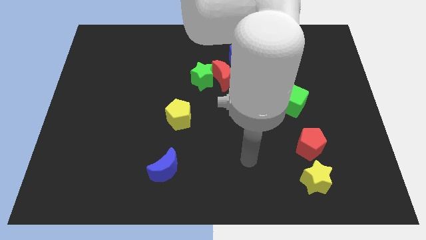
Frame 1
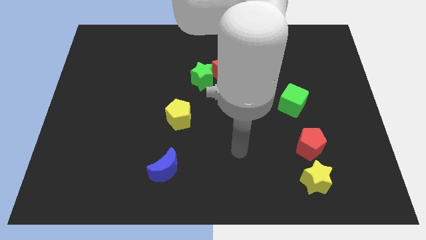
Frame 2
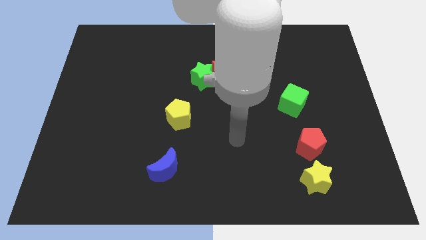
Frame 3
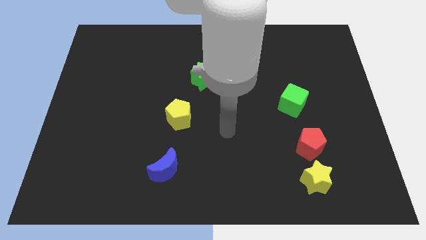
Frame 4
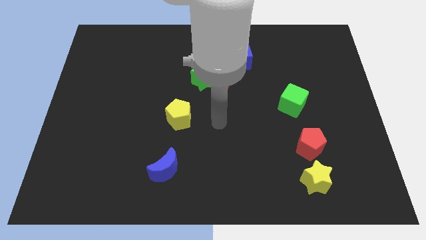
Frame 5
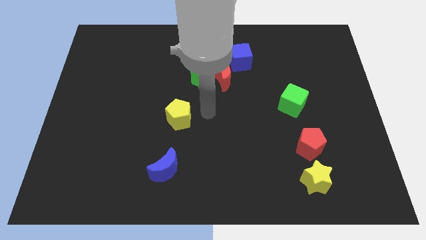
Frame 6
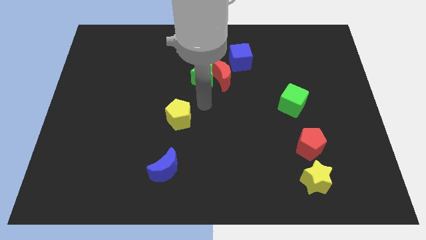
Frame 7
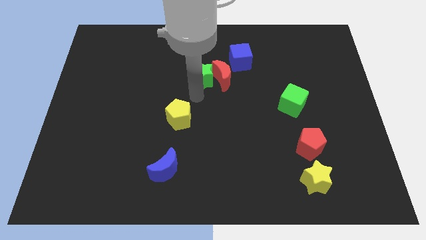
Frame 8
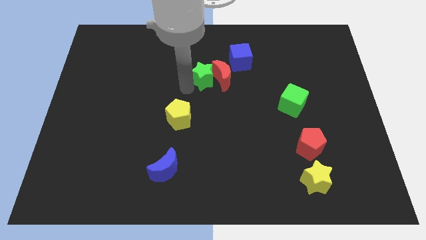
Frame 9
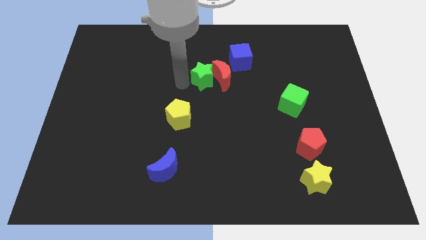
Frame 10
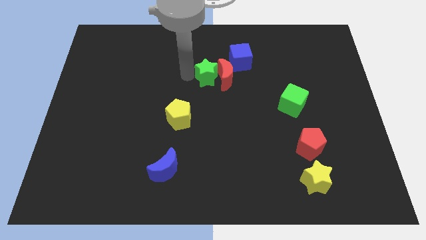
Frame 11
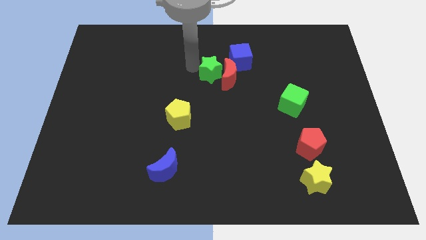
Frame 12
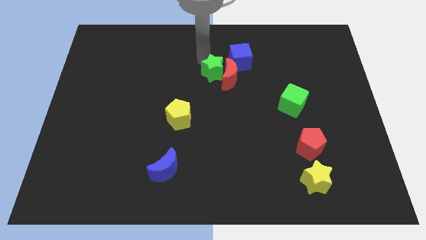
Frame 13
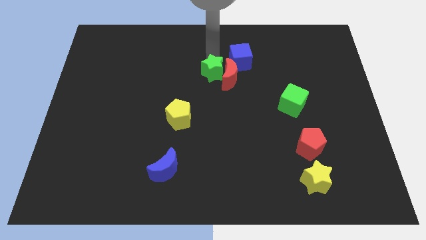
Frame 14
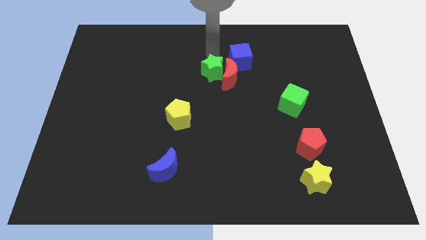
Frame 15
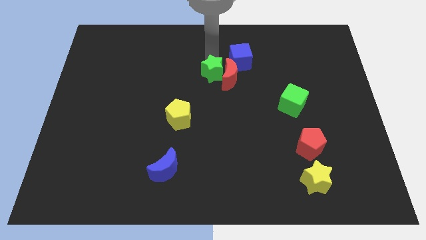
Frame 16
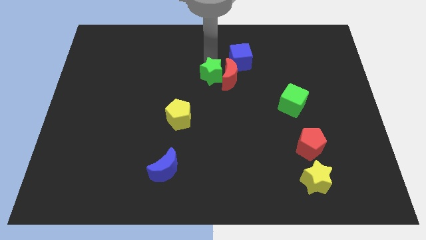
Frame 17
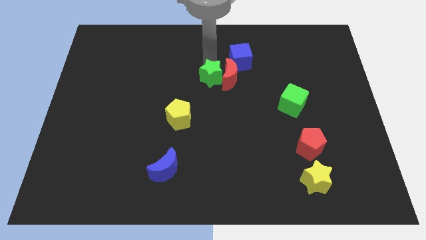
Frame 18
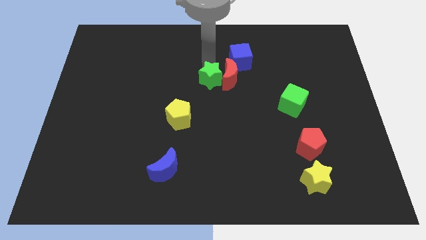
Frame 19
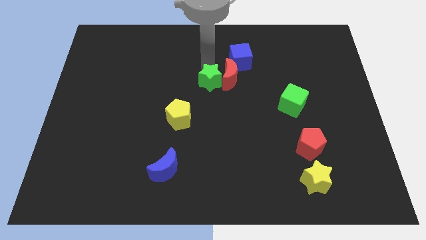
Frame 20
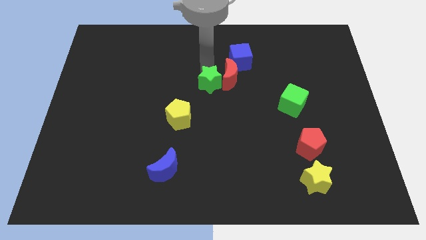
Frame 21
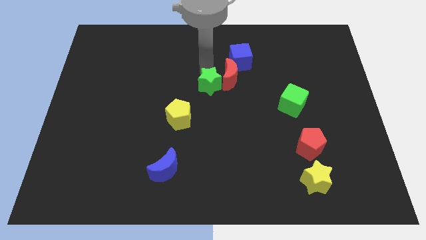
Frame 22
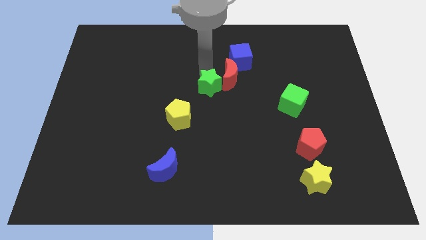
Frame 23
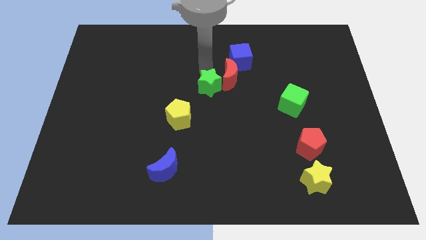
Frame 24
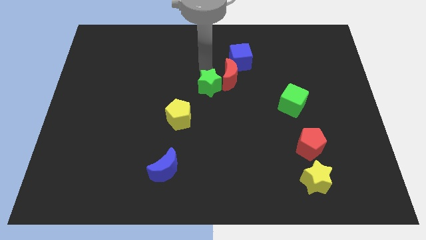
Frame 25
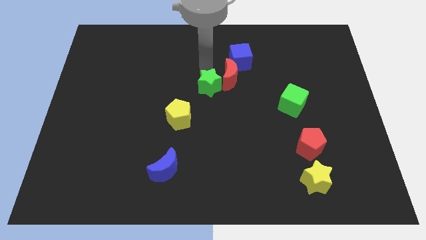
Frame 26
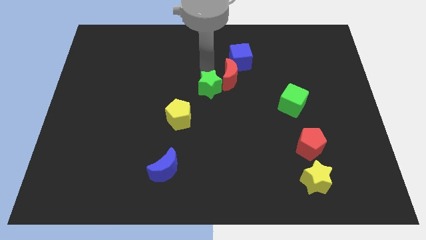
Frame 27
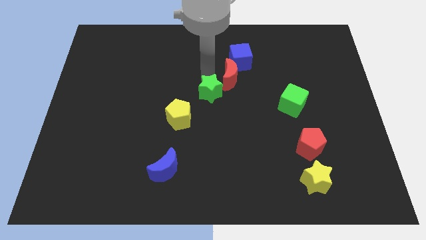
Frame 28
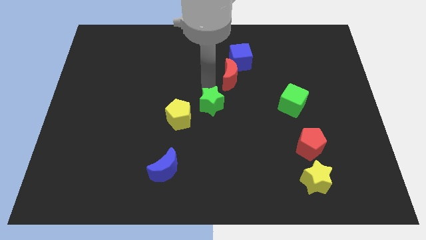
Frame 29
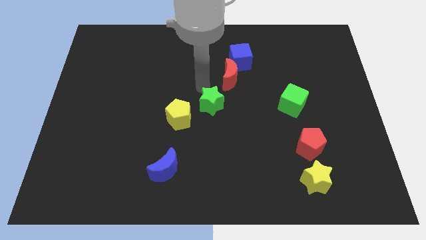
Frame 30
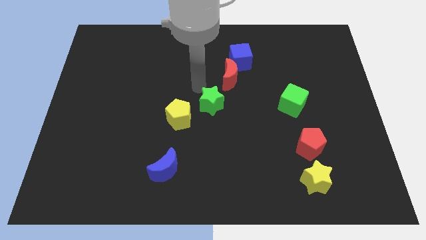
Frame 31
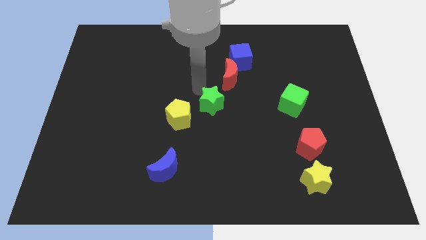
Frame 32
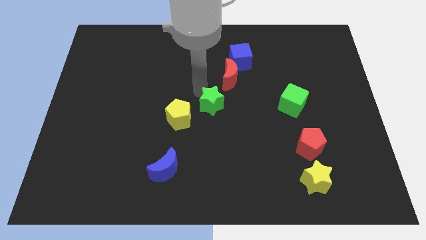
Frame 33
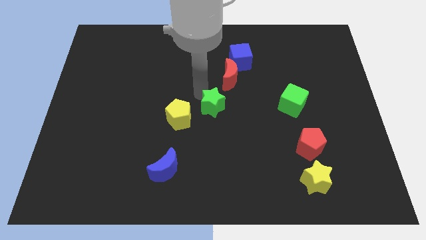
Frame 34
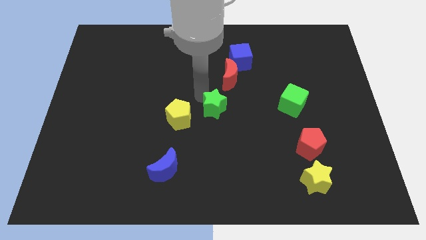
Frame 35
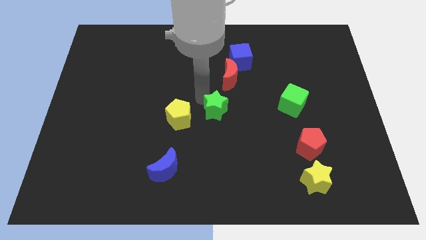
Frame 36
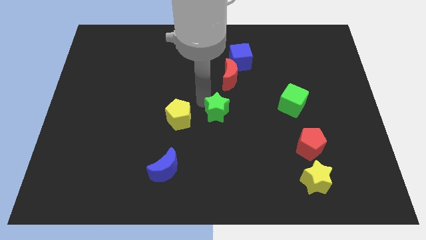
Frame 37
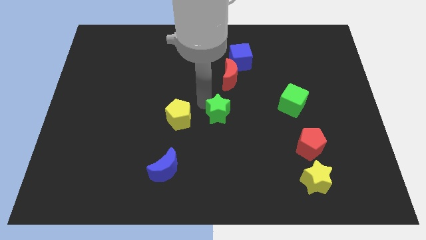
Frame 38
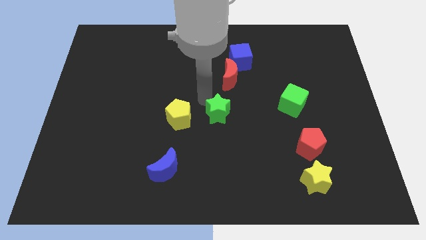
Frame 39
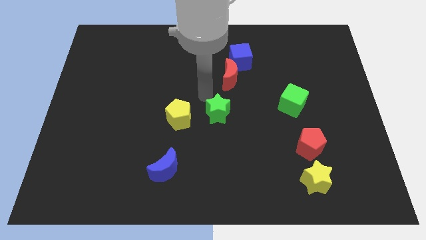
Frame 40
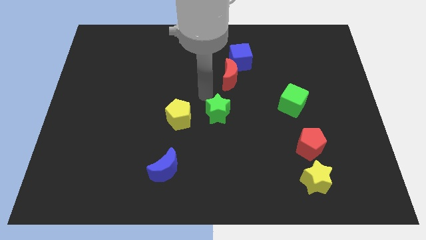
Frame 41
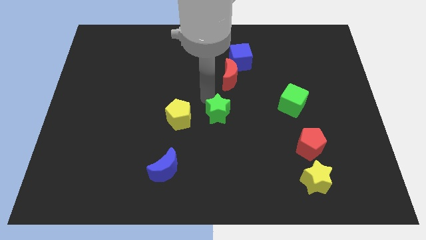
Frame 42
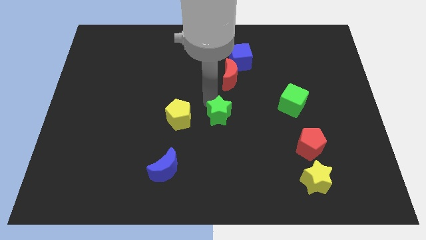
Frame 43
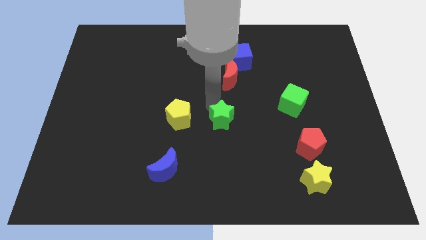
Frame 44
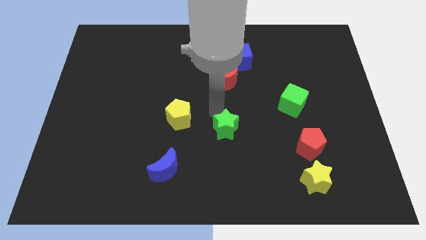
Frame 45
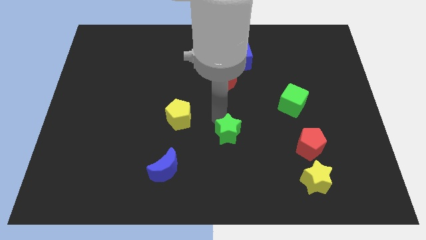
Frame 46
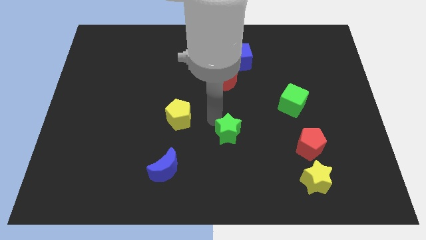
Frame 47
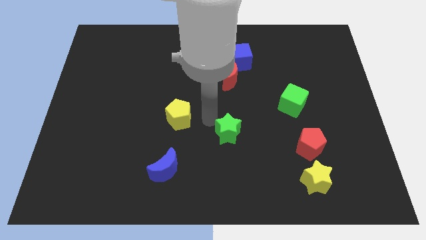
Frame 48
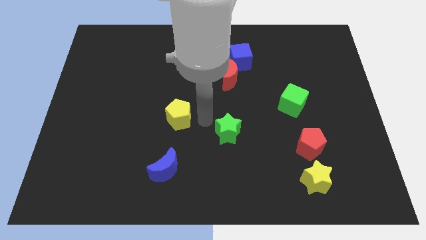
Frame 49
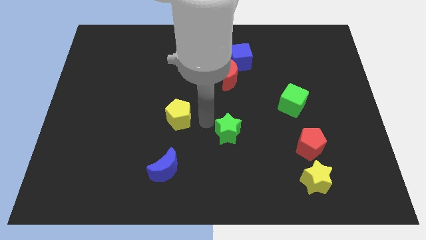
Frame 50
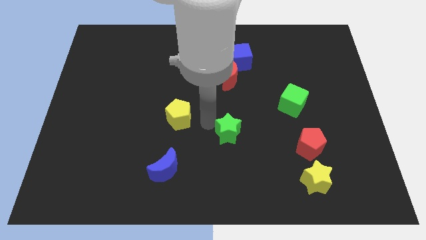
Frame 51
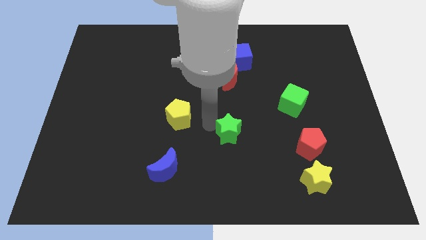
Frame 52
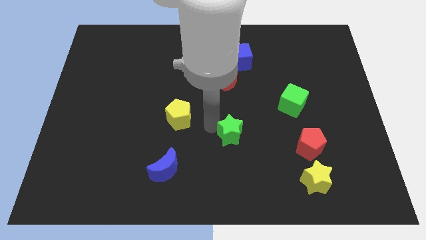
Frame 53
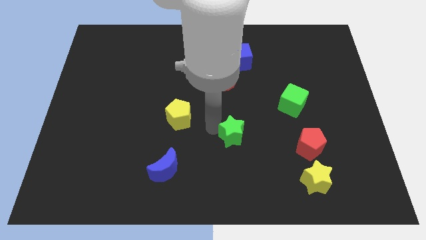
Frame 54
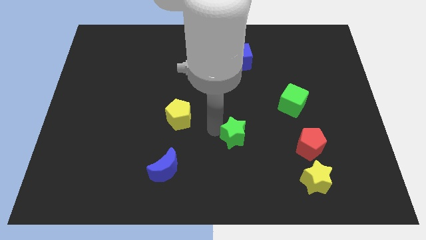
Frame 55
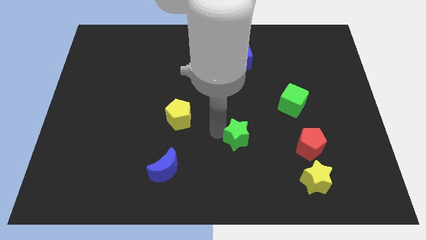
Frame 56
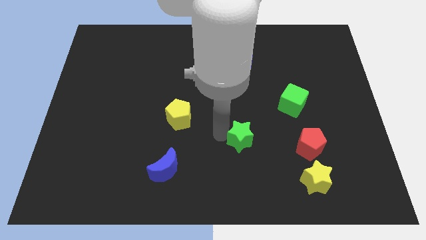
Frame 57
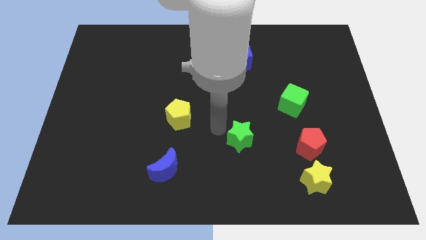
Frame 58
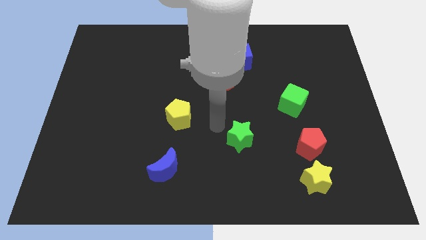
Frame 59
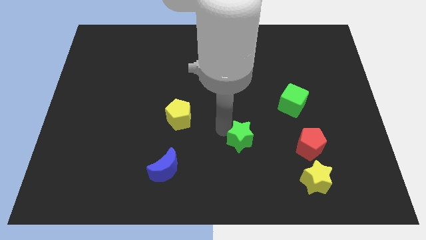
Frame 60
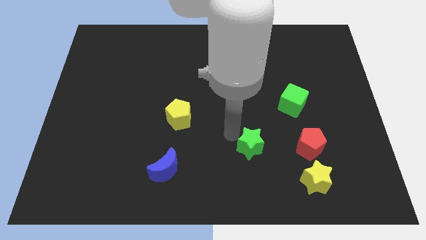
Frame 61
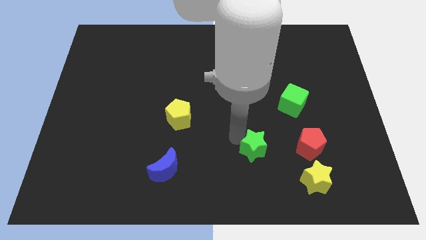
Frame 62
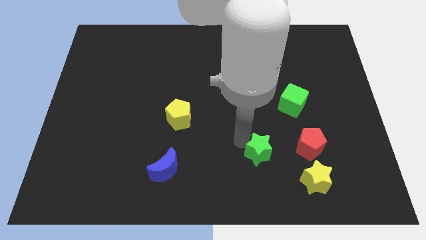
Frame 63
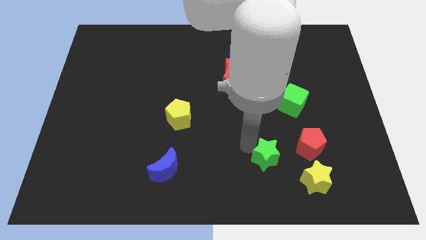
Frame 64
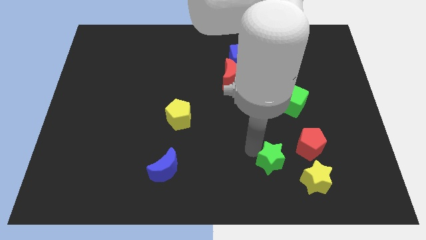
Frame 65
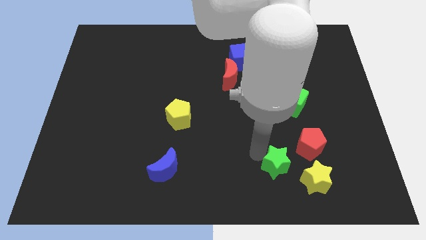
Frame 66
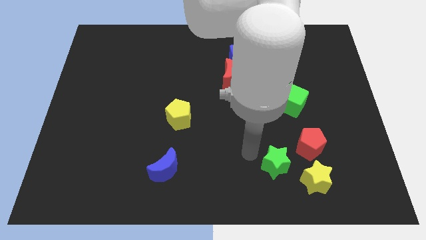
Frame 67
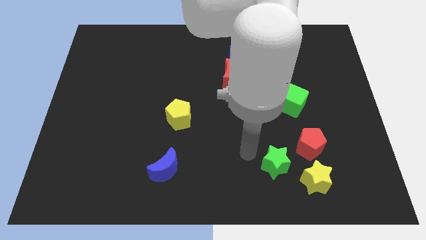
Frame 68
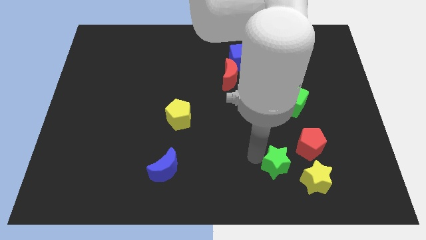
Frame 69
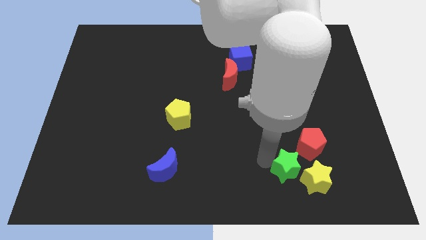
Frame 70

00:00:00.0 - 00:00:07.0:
push the green star next to the yellow star
